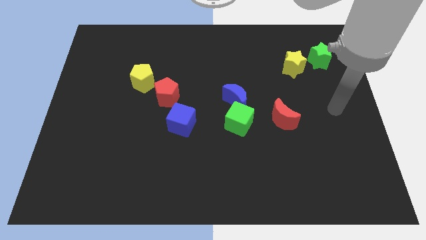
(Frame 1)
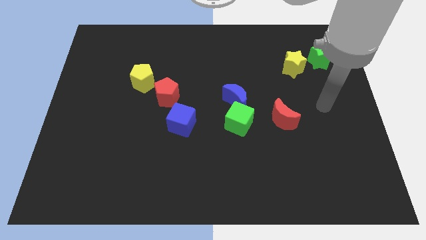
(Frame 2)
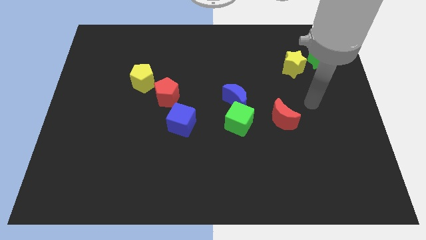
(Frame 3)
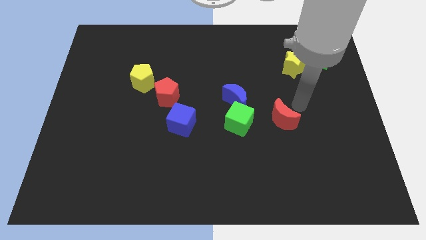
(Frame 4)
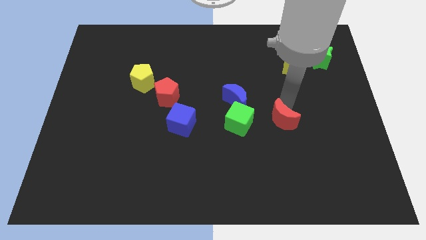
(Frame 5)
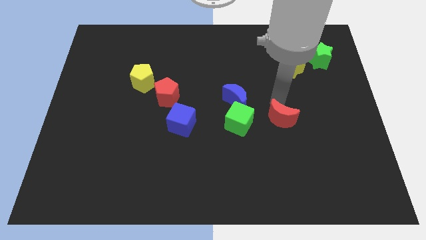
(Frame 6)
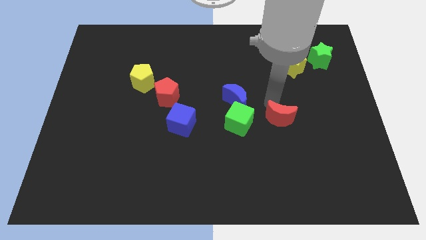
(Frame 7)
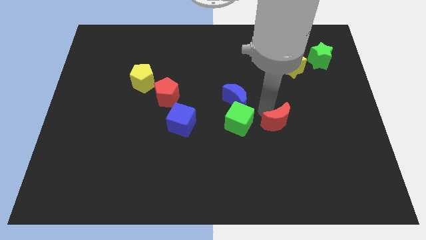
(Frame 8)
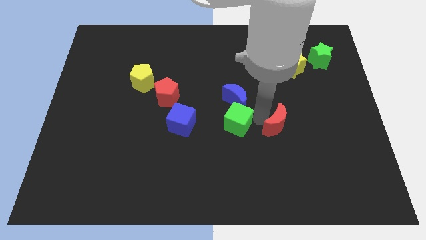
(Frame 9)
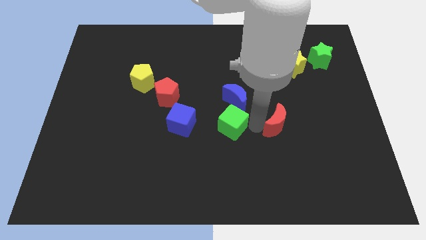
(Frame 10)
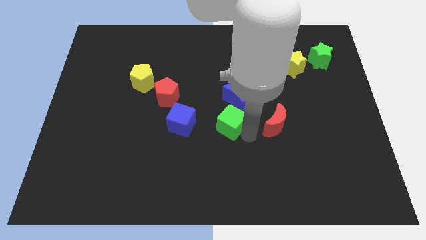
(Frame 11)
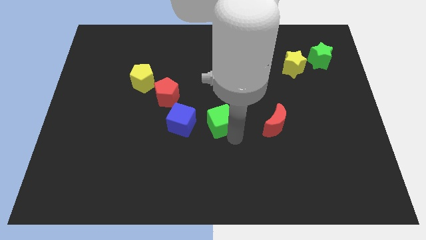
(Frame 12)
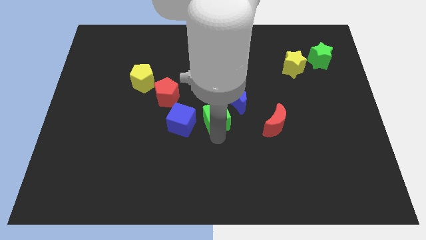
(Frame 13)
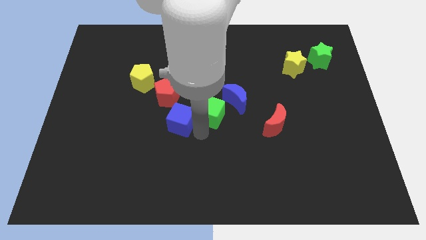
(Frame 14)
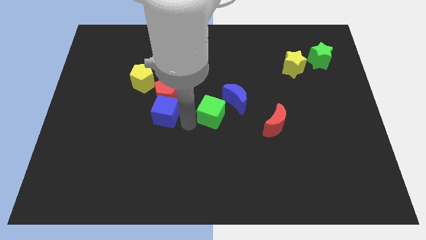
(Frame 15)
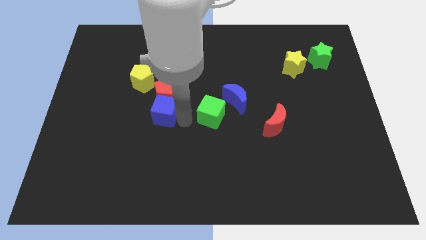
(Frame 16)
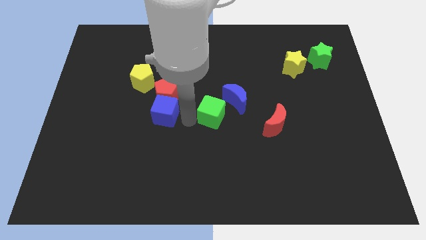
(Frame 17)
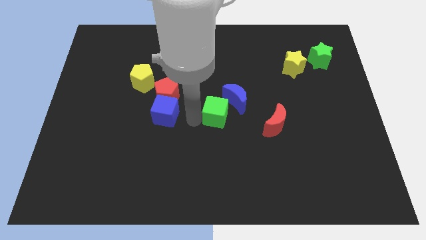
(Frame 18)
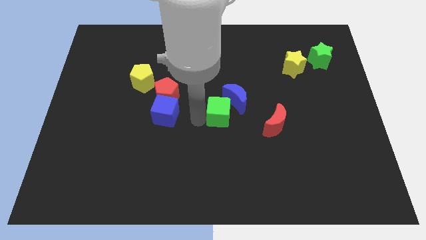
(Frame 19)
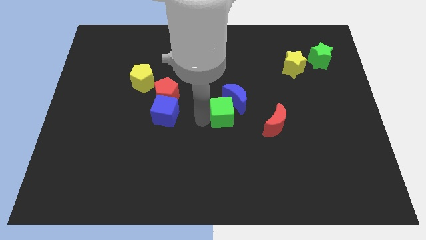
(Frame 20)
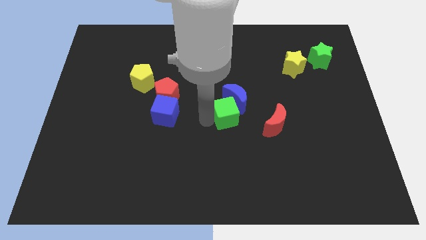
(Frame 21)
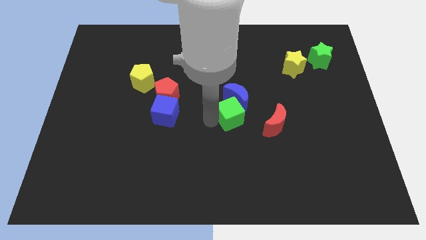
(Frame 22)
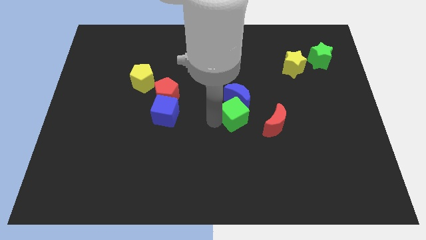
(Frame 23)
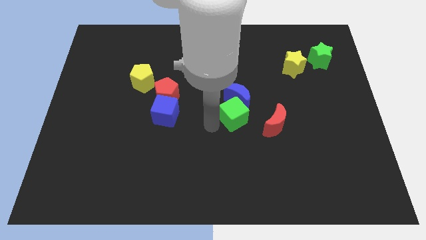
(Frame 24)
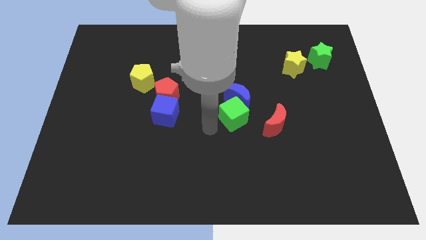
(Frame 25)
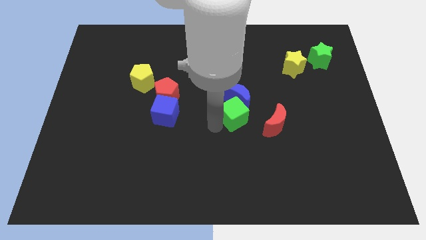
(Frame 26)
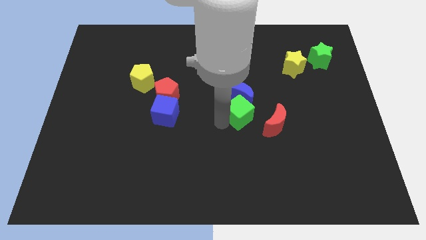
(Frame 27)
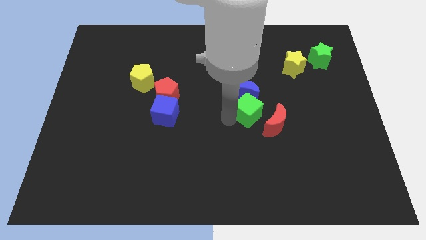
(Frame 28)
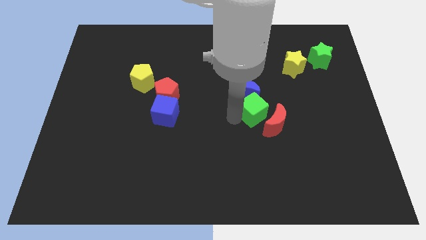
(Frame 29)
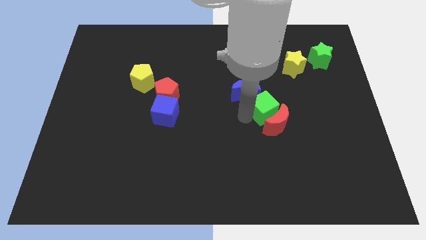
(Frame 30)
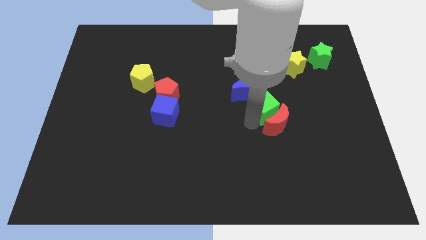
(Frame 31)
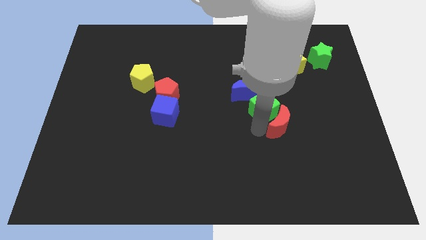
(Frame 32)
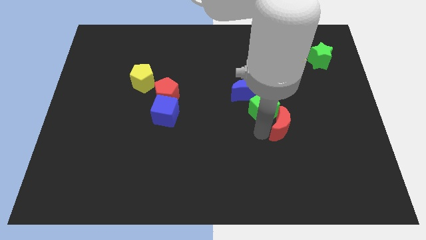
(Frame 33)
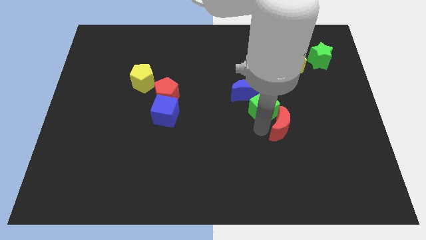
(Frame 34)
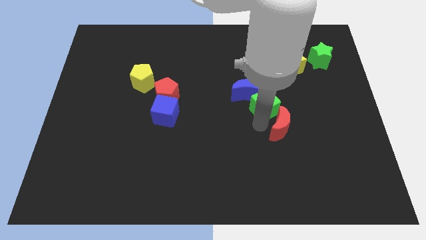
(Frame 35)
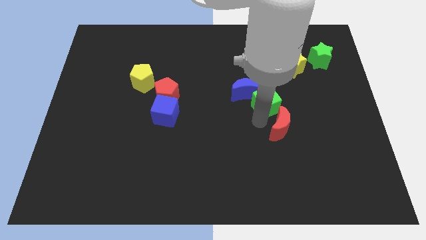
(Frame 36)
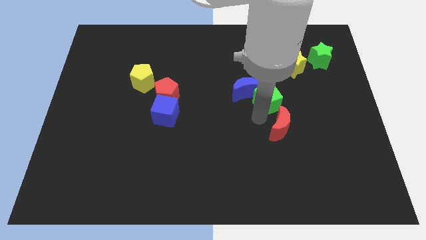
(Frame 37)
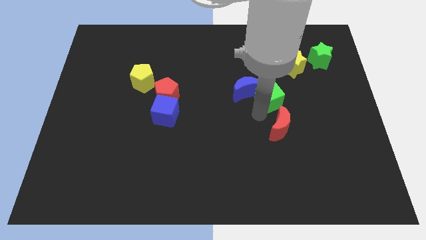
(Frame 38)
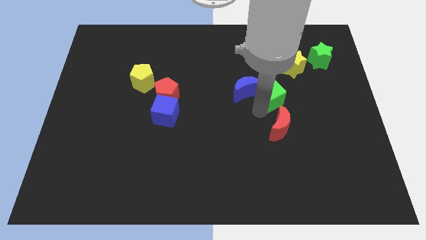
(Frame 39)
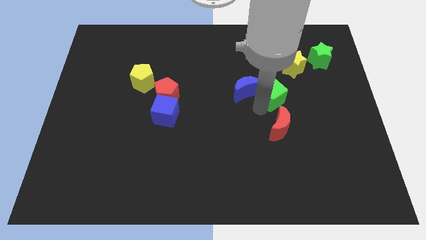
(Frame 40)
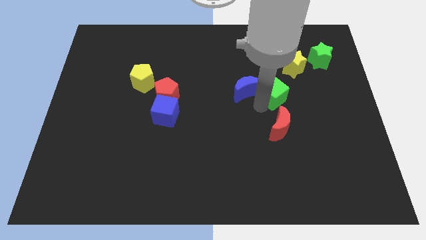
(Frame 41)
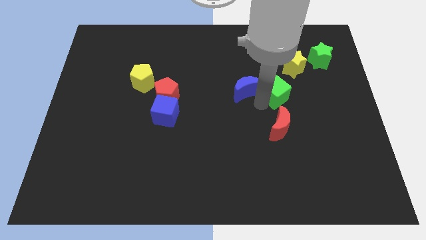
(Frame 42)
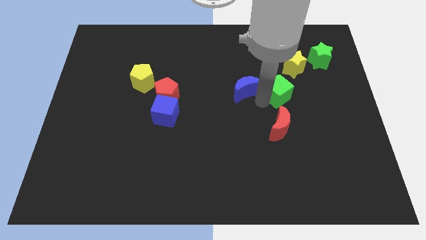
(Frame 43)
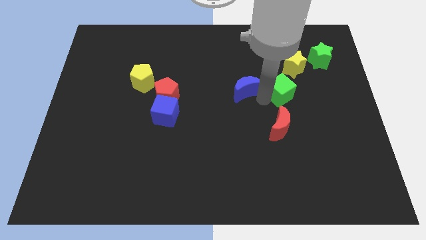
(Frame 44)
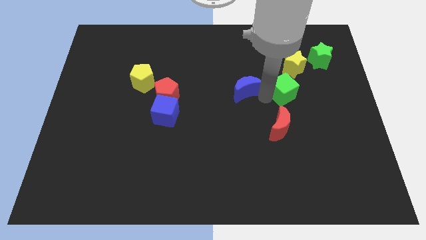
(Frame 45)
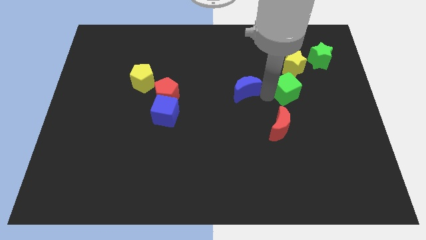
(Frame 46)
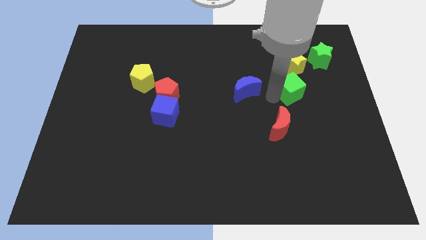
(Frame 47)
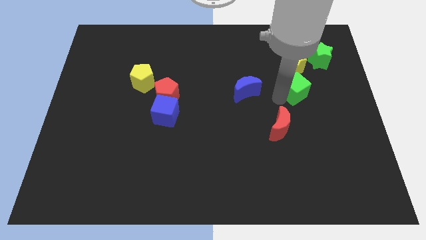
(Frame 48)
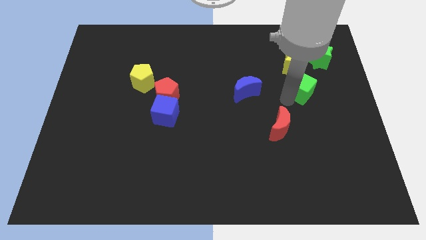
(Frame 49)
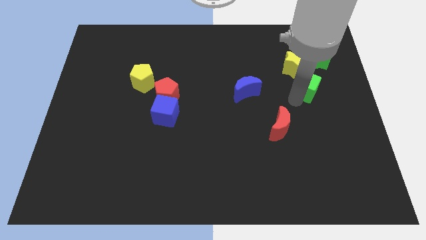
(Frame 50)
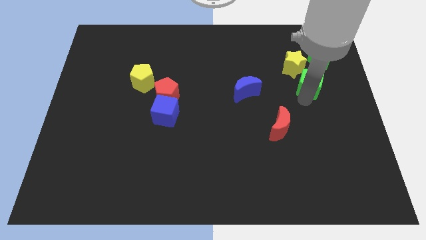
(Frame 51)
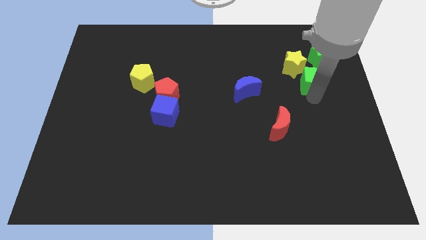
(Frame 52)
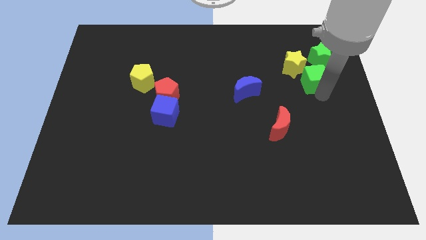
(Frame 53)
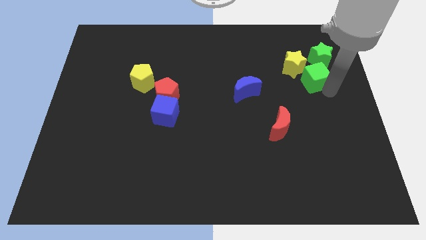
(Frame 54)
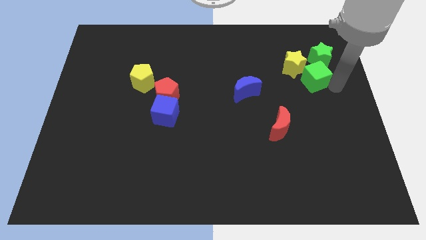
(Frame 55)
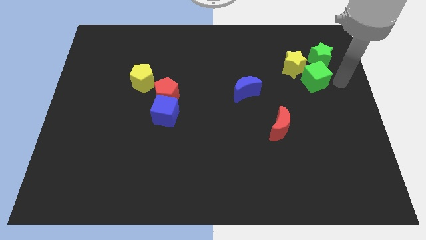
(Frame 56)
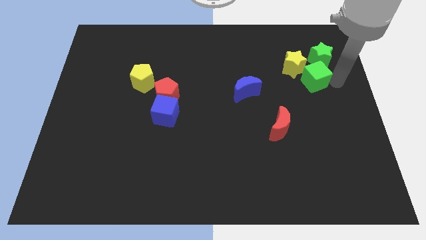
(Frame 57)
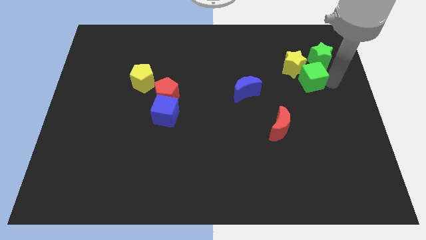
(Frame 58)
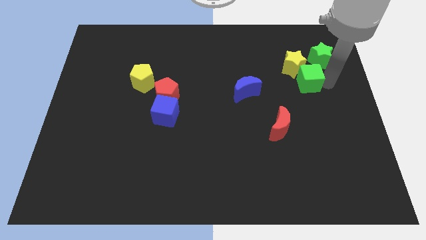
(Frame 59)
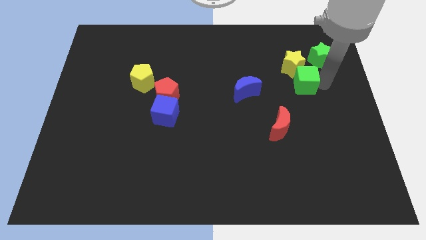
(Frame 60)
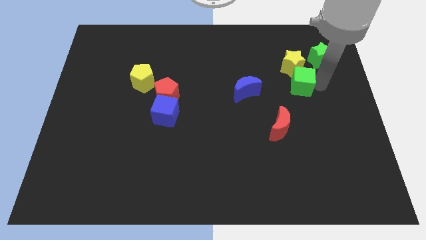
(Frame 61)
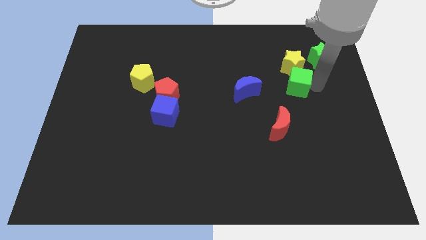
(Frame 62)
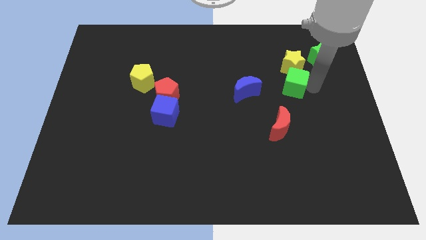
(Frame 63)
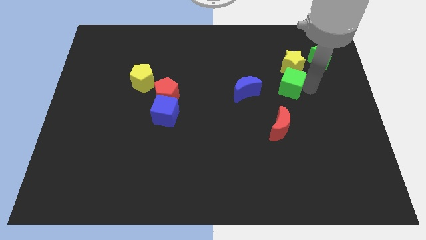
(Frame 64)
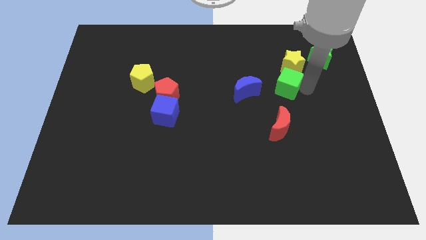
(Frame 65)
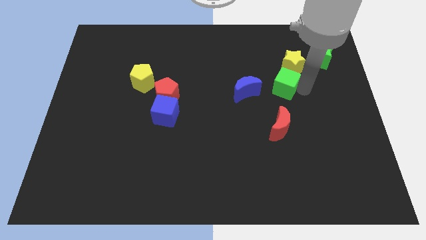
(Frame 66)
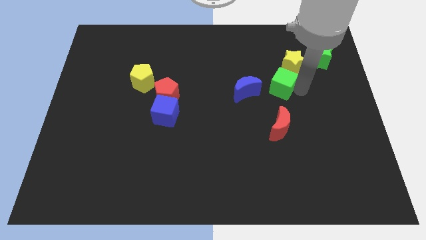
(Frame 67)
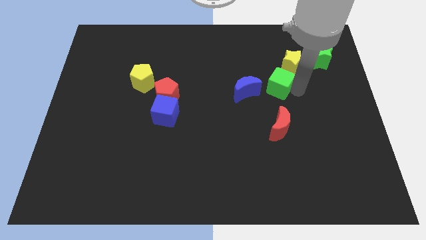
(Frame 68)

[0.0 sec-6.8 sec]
put the green cube diagonally up and to the right of the blue moon

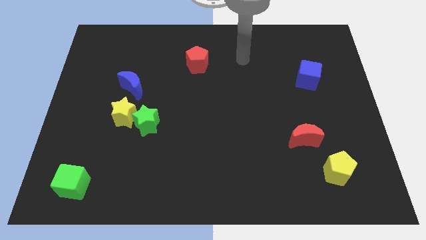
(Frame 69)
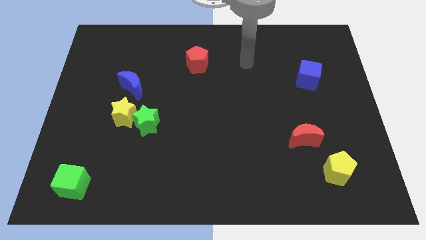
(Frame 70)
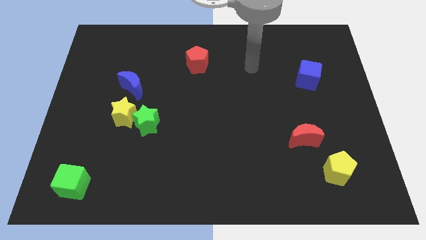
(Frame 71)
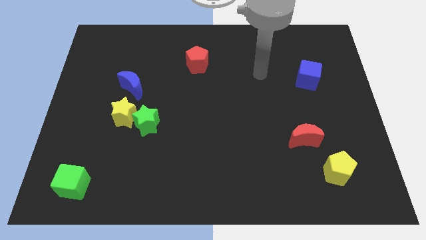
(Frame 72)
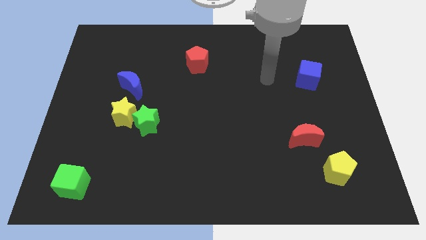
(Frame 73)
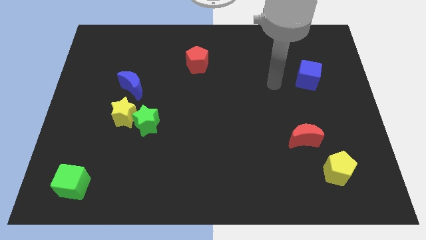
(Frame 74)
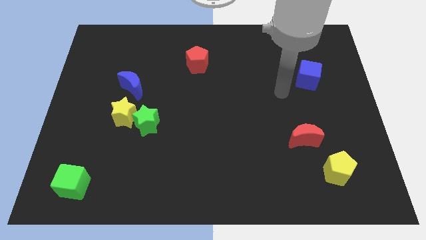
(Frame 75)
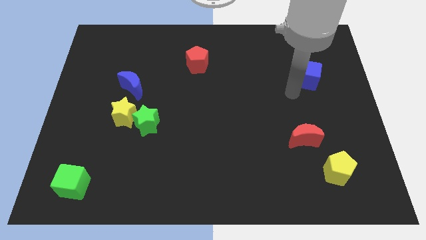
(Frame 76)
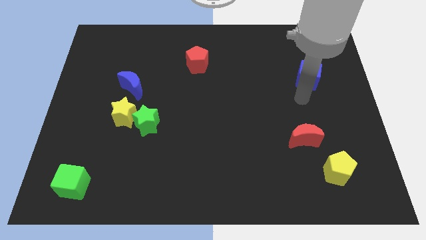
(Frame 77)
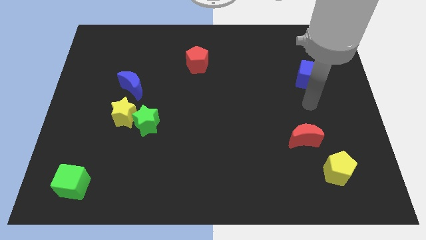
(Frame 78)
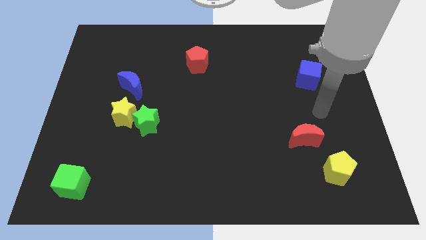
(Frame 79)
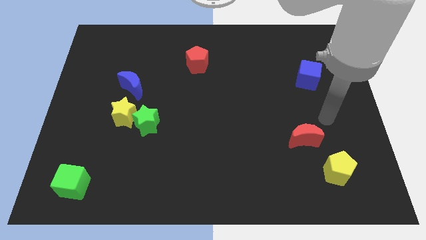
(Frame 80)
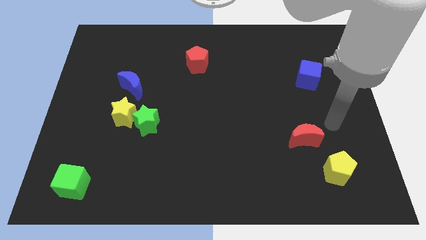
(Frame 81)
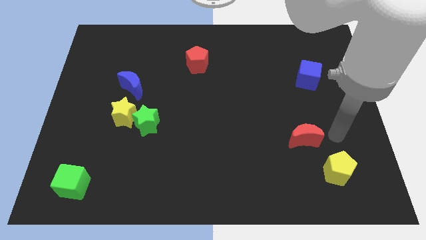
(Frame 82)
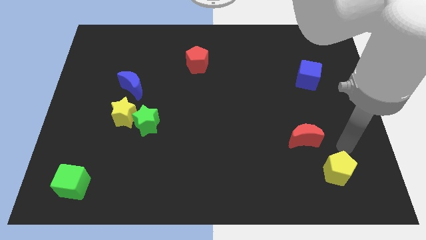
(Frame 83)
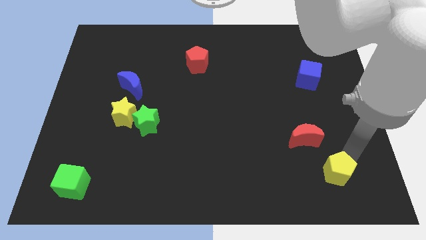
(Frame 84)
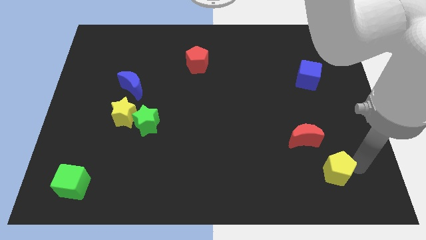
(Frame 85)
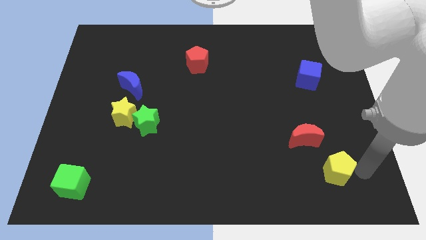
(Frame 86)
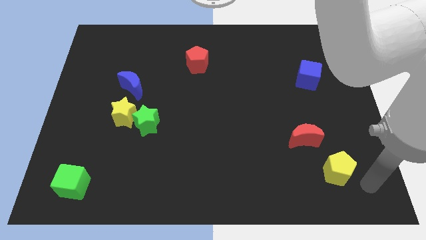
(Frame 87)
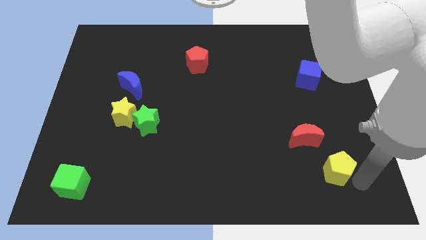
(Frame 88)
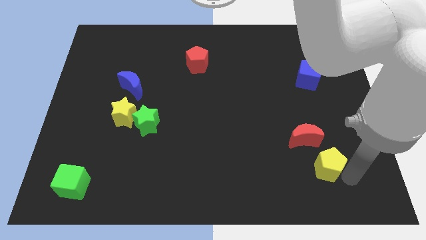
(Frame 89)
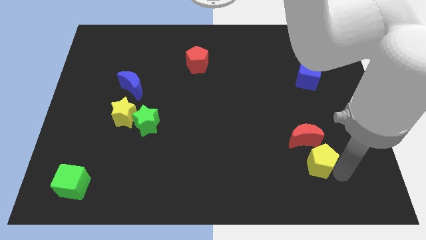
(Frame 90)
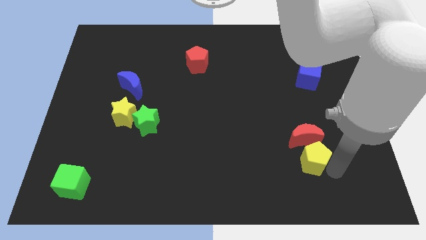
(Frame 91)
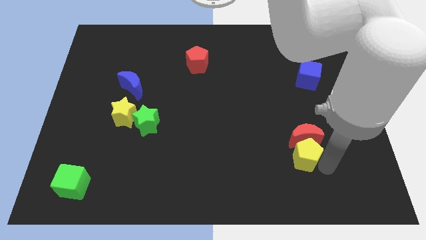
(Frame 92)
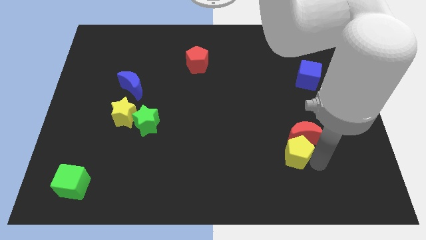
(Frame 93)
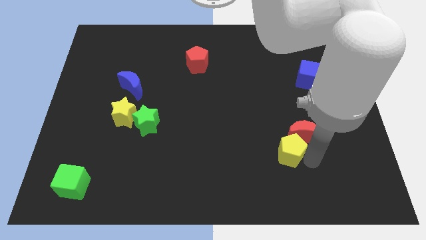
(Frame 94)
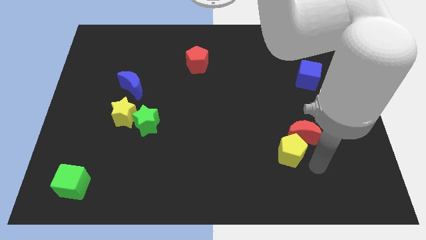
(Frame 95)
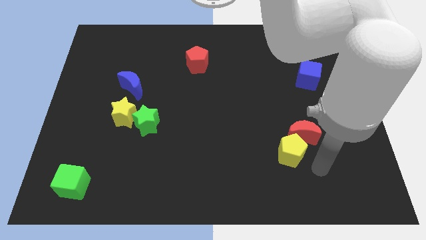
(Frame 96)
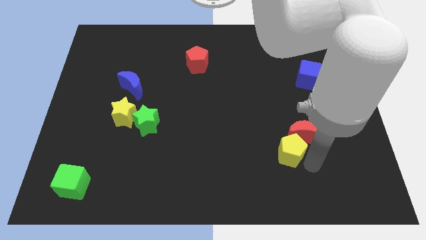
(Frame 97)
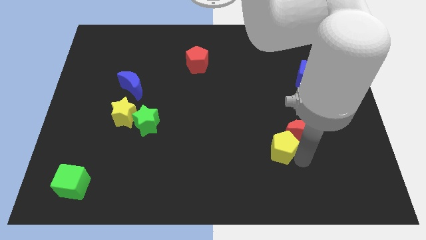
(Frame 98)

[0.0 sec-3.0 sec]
put the yellow pentagon left of the red moon
